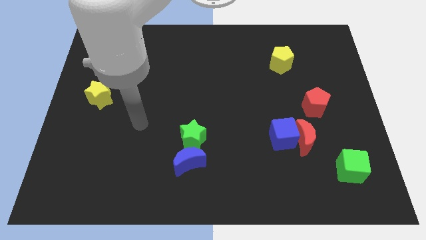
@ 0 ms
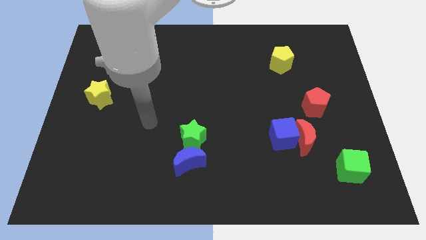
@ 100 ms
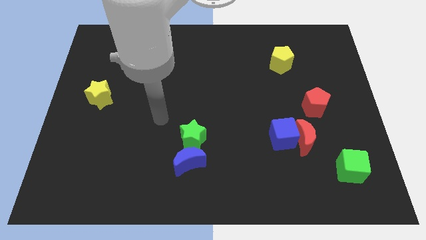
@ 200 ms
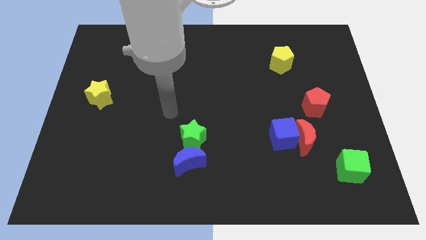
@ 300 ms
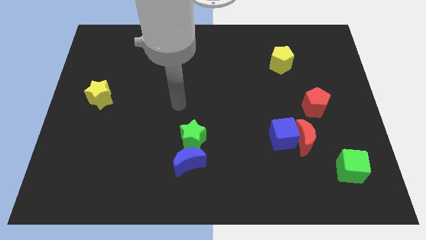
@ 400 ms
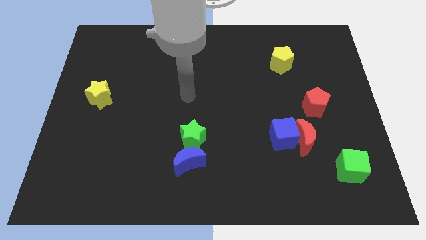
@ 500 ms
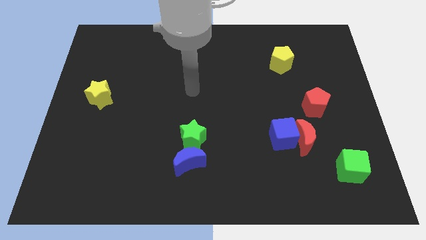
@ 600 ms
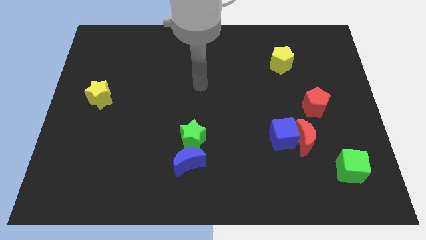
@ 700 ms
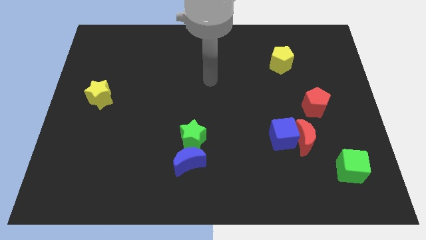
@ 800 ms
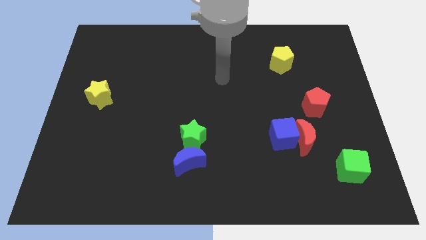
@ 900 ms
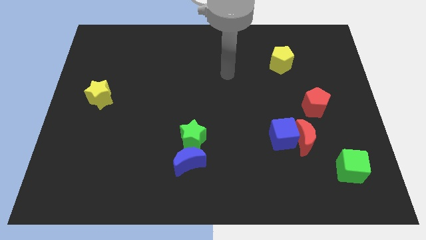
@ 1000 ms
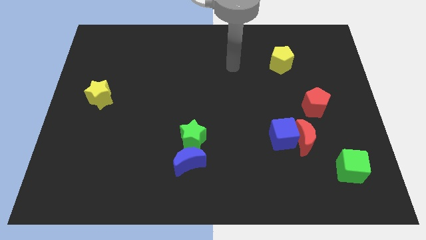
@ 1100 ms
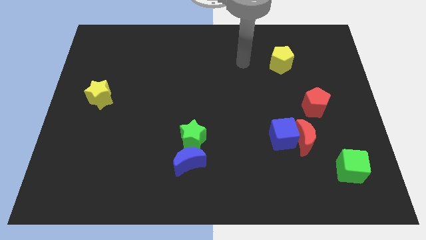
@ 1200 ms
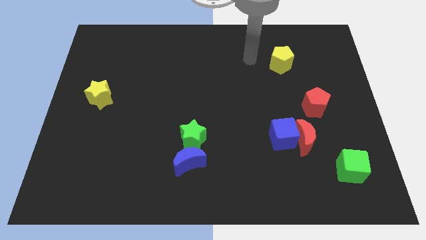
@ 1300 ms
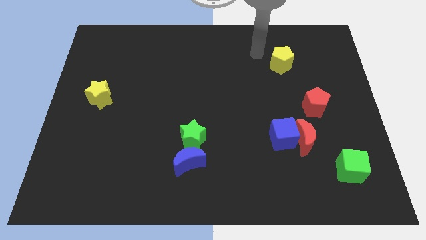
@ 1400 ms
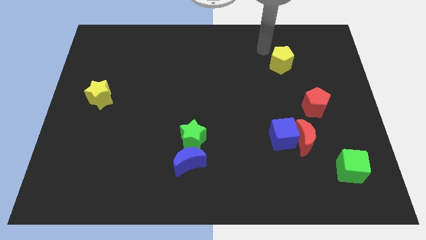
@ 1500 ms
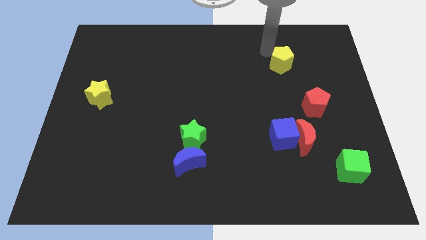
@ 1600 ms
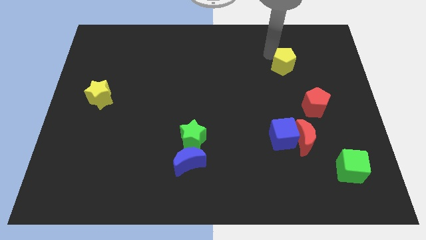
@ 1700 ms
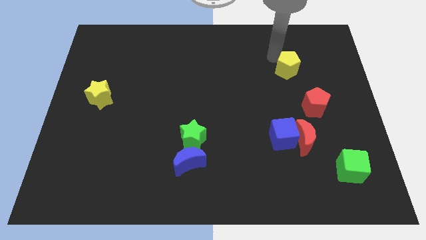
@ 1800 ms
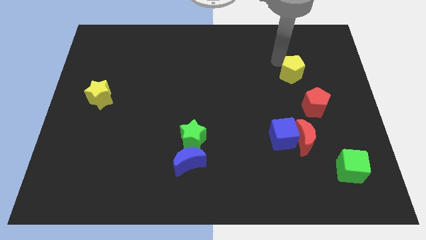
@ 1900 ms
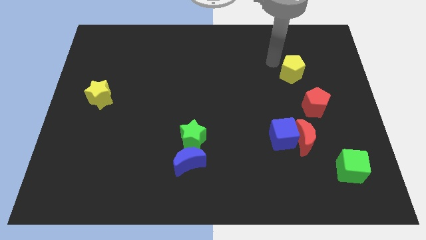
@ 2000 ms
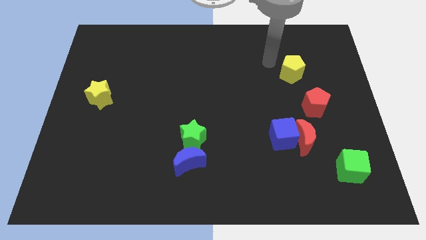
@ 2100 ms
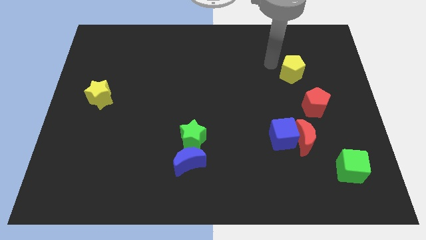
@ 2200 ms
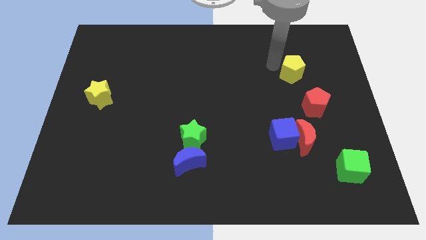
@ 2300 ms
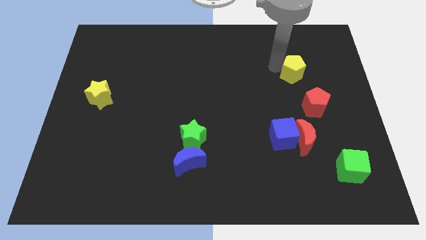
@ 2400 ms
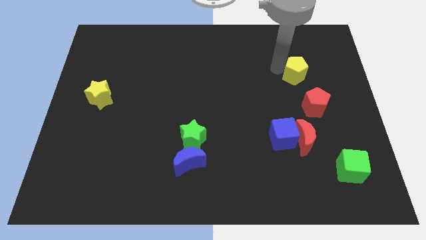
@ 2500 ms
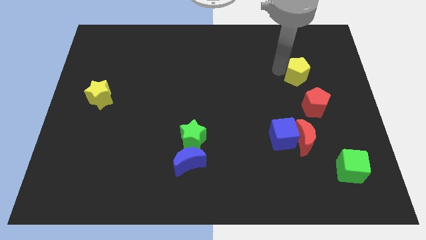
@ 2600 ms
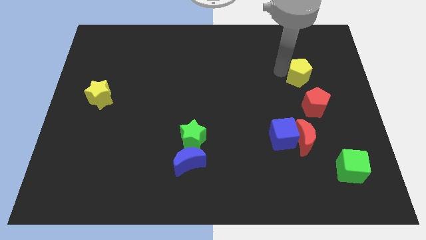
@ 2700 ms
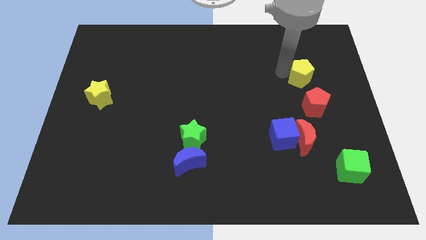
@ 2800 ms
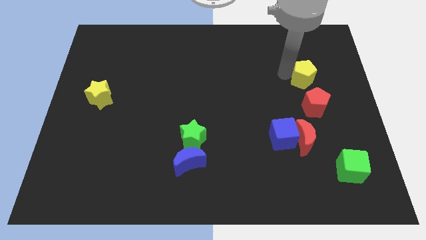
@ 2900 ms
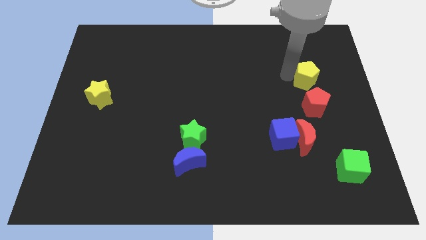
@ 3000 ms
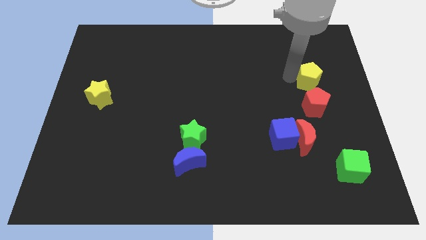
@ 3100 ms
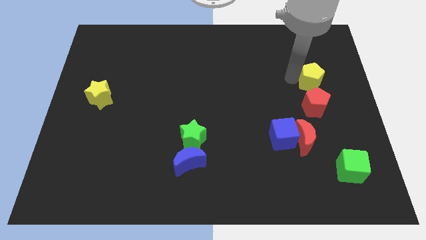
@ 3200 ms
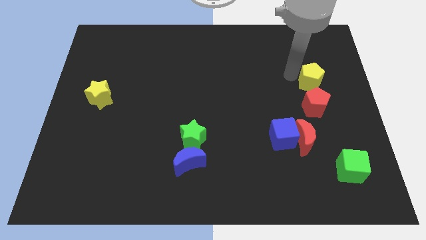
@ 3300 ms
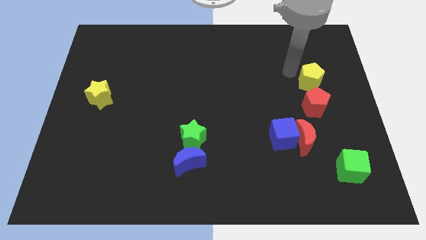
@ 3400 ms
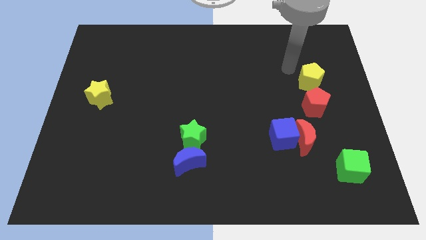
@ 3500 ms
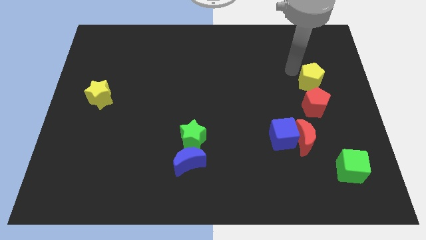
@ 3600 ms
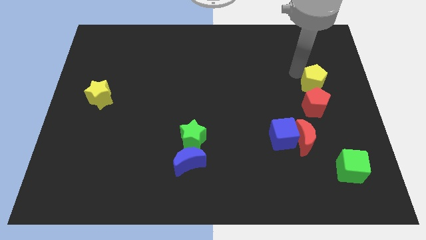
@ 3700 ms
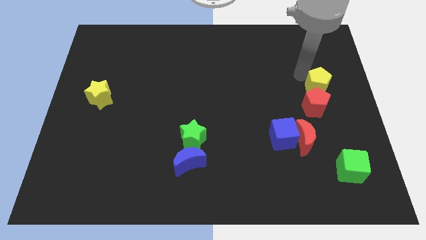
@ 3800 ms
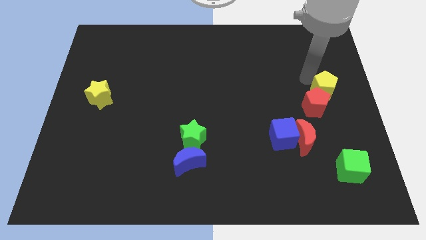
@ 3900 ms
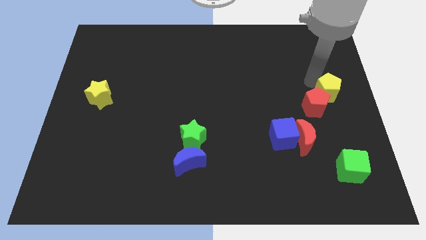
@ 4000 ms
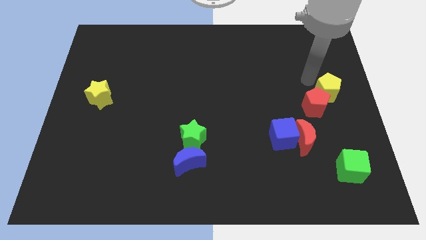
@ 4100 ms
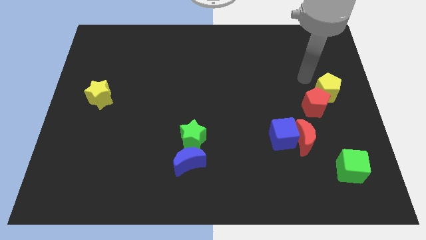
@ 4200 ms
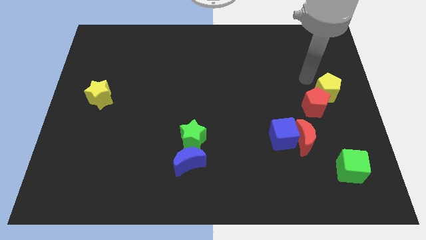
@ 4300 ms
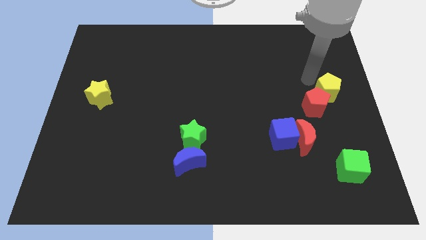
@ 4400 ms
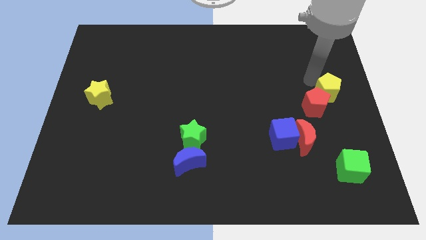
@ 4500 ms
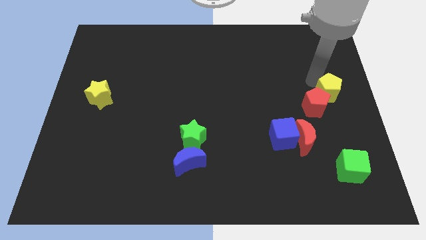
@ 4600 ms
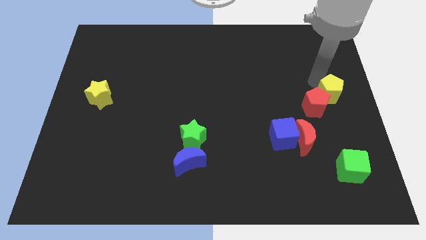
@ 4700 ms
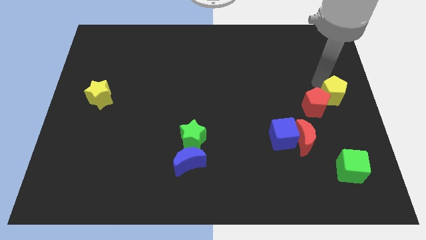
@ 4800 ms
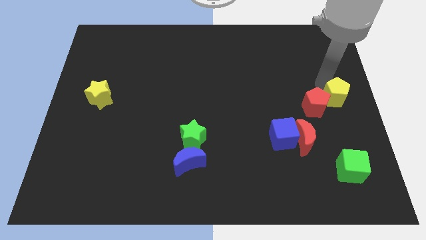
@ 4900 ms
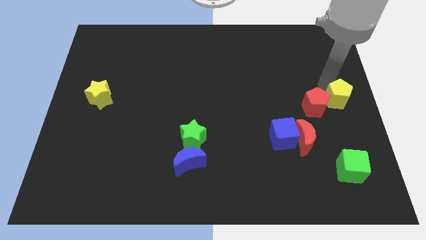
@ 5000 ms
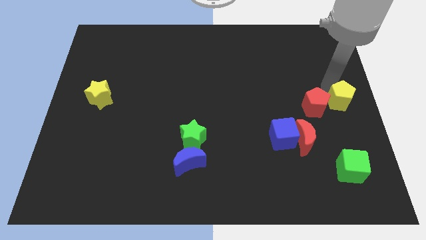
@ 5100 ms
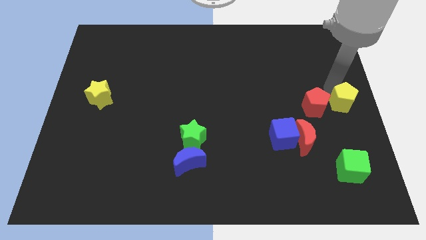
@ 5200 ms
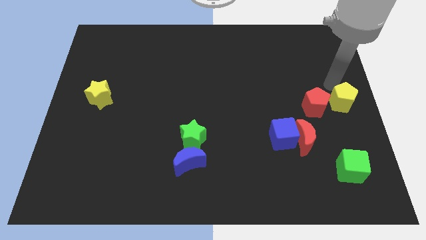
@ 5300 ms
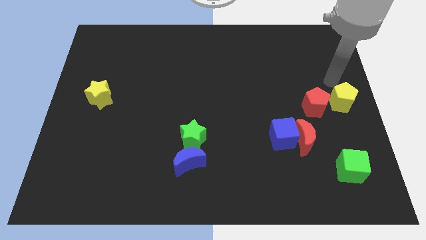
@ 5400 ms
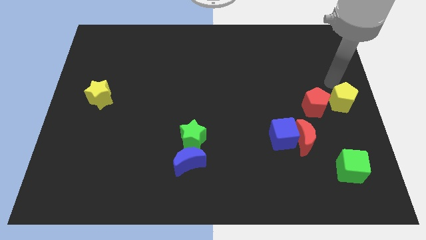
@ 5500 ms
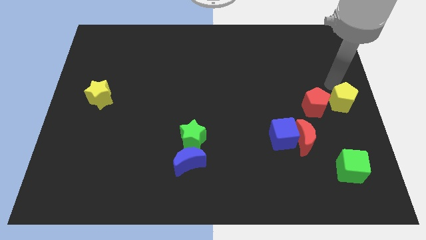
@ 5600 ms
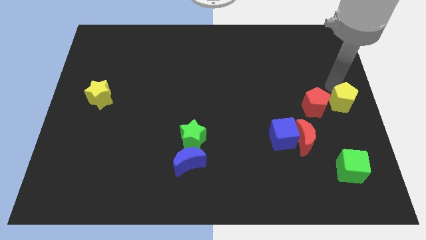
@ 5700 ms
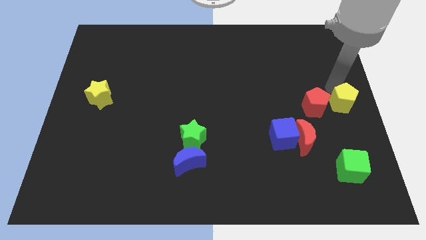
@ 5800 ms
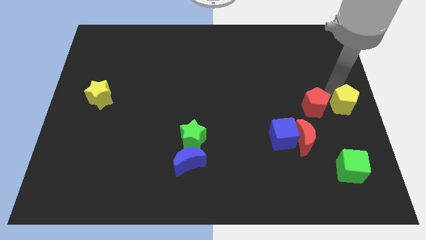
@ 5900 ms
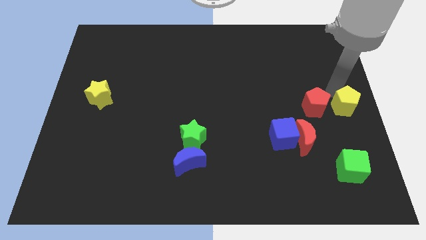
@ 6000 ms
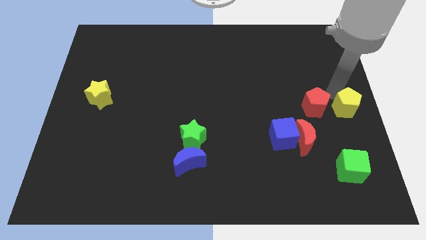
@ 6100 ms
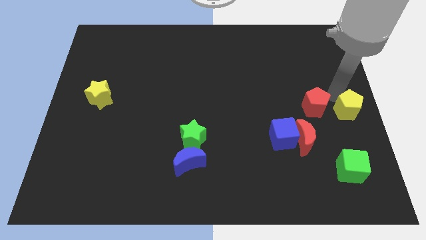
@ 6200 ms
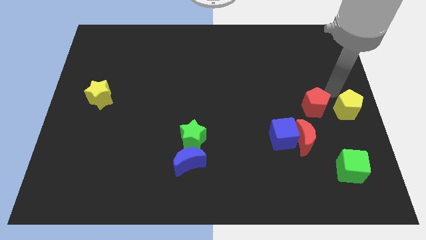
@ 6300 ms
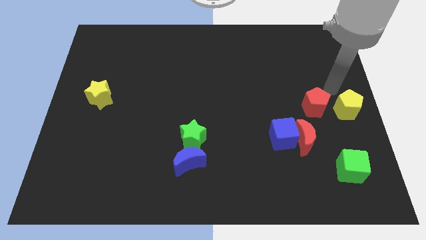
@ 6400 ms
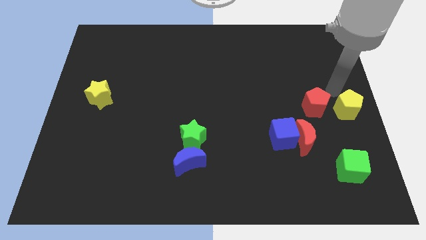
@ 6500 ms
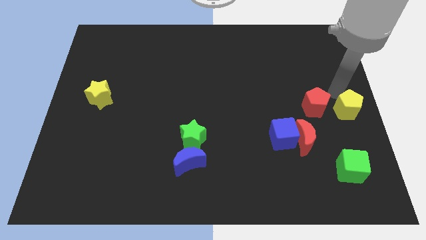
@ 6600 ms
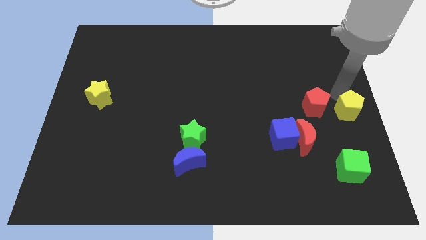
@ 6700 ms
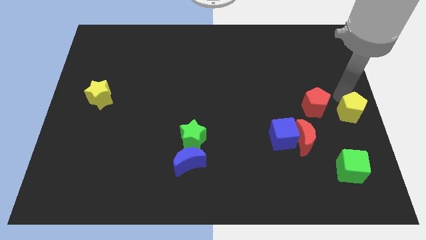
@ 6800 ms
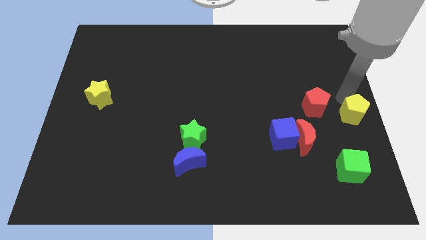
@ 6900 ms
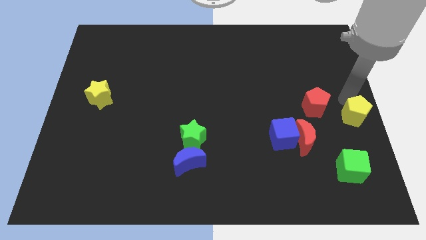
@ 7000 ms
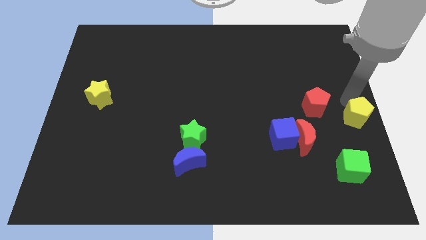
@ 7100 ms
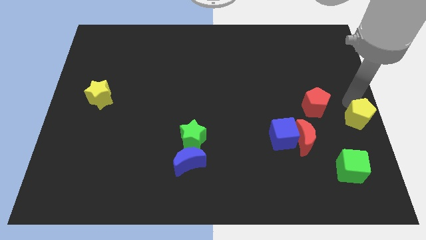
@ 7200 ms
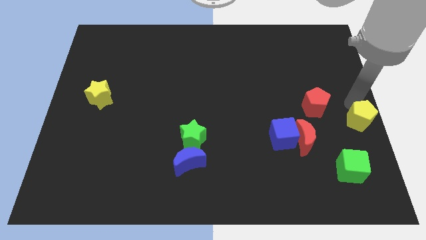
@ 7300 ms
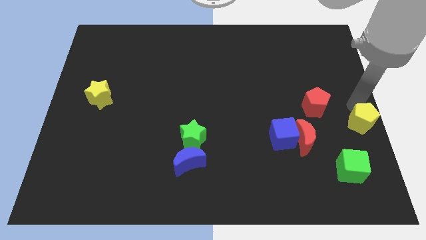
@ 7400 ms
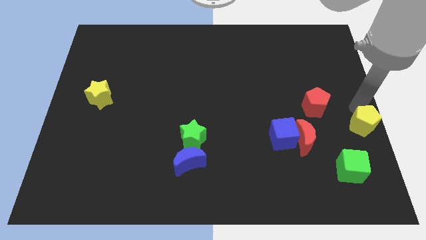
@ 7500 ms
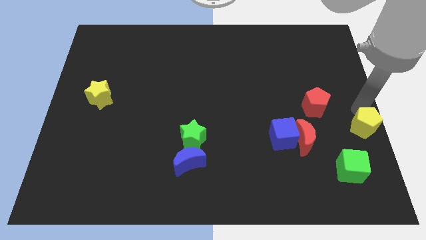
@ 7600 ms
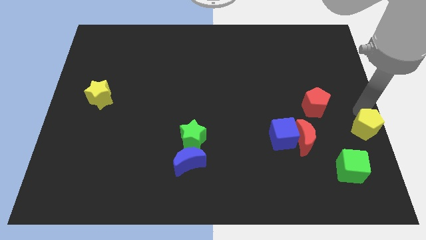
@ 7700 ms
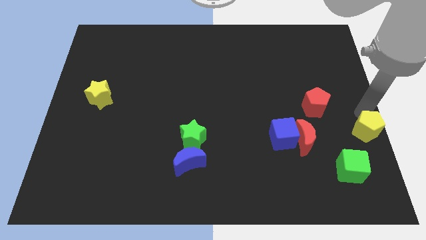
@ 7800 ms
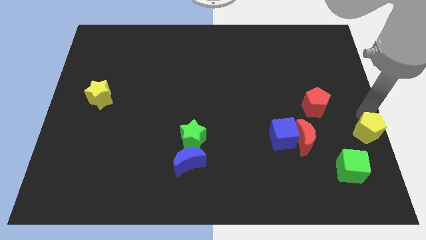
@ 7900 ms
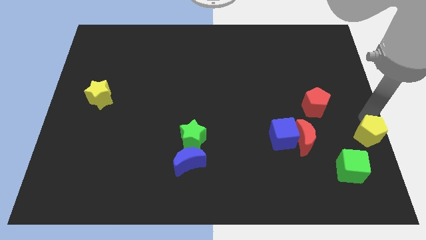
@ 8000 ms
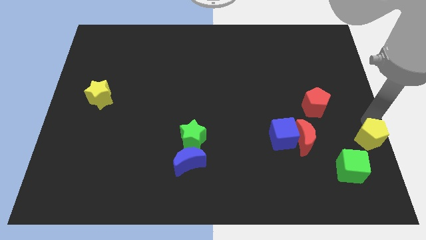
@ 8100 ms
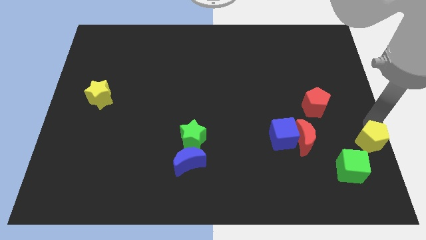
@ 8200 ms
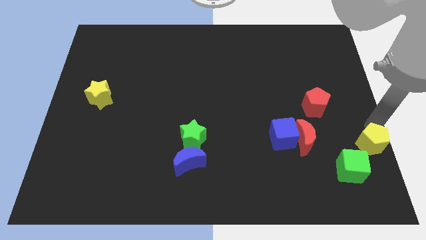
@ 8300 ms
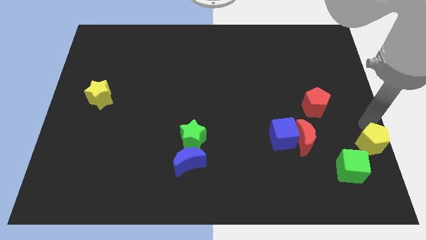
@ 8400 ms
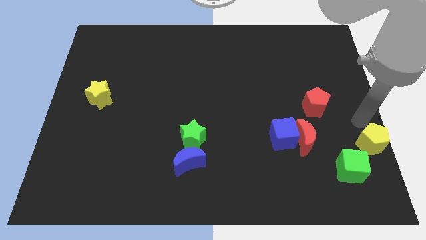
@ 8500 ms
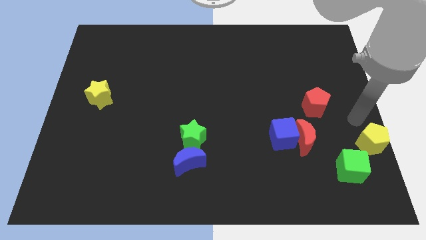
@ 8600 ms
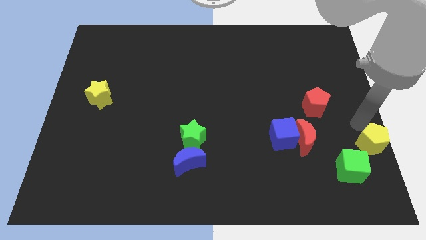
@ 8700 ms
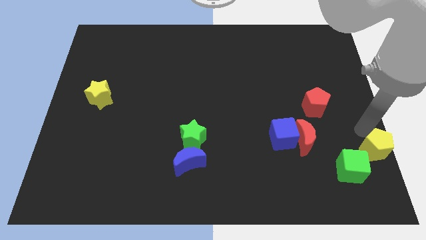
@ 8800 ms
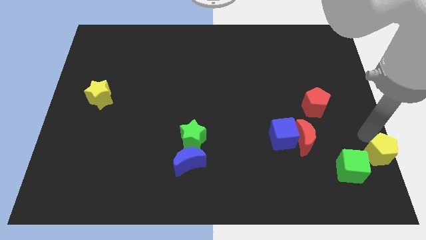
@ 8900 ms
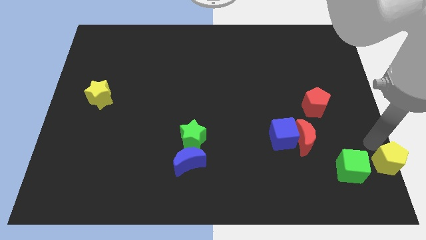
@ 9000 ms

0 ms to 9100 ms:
push the yellow pentagon to the bottom right of the board
